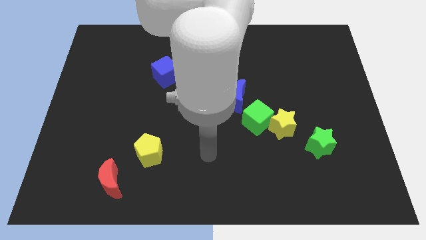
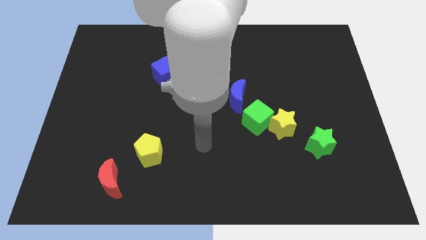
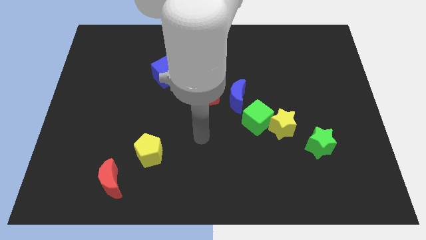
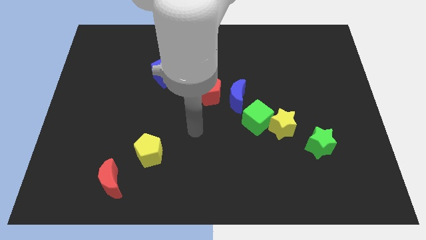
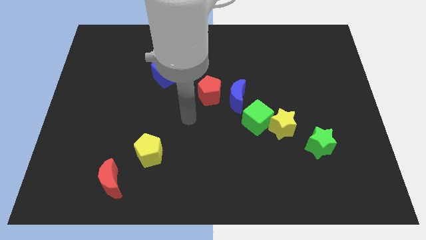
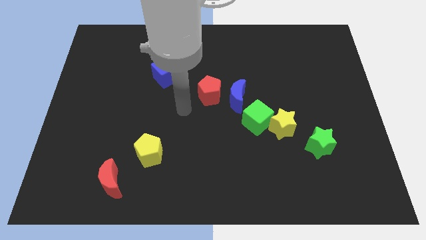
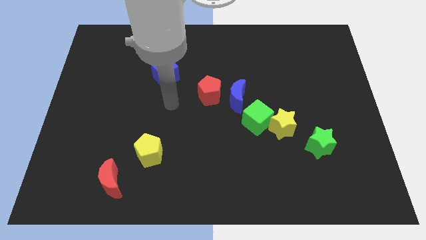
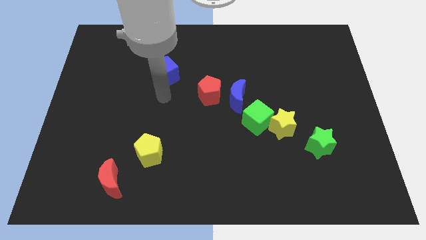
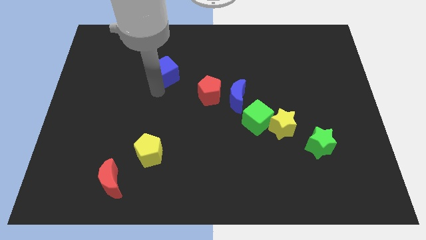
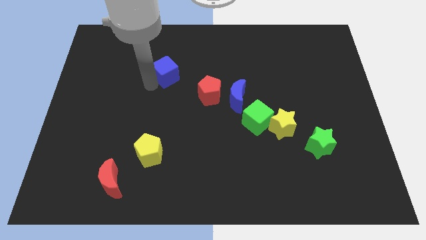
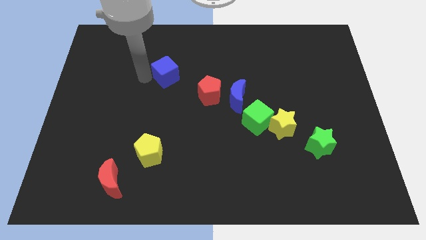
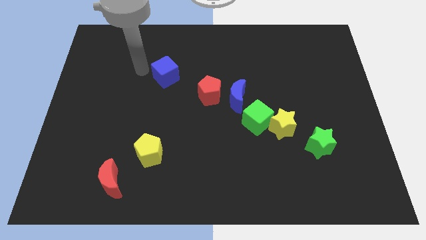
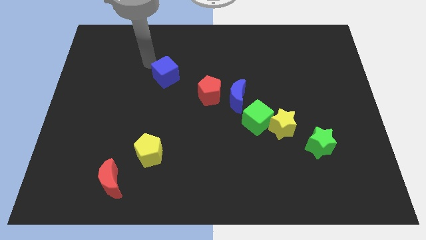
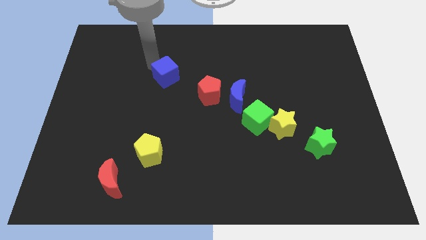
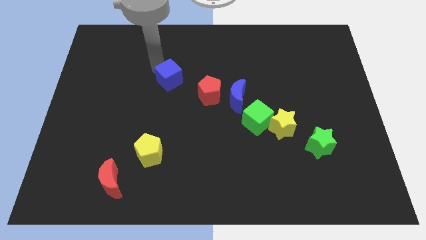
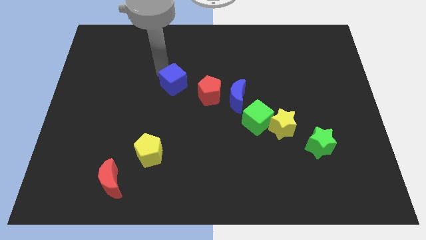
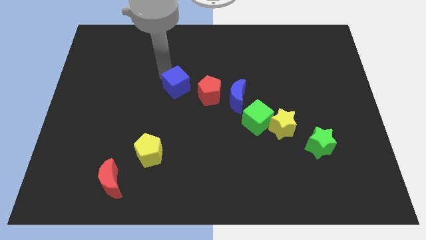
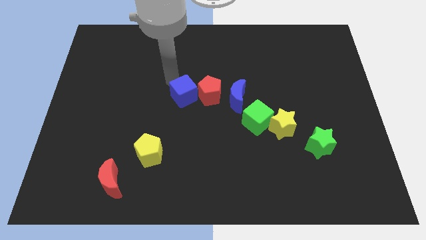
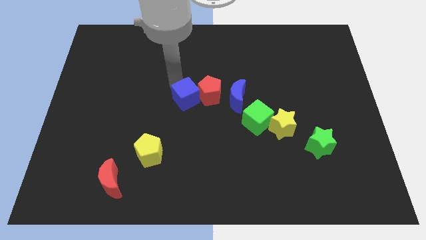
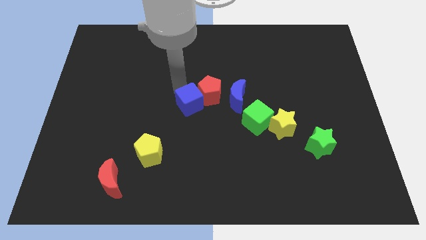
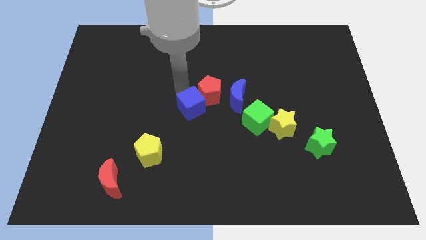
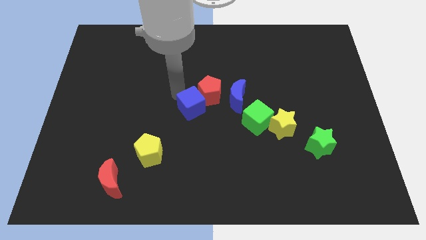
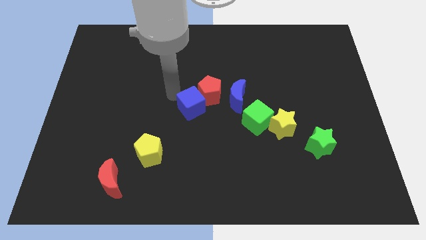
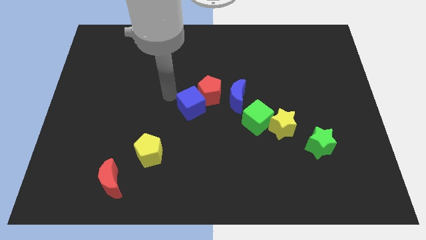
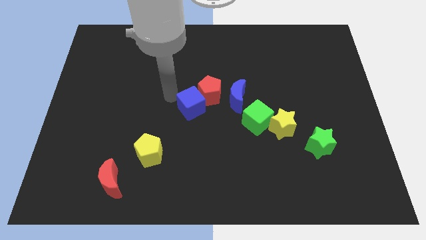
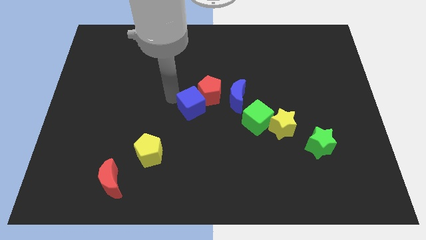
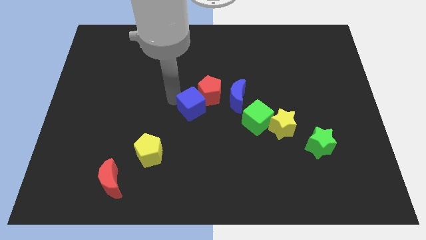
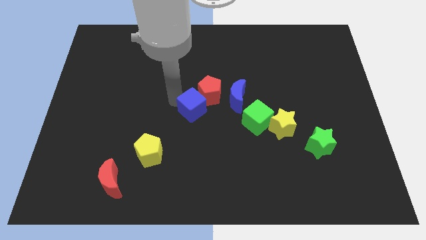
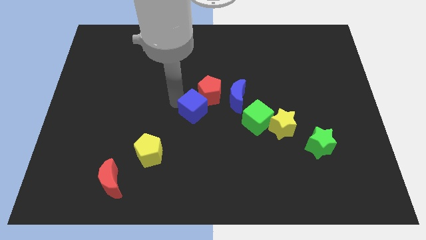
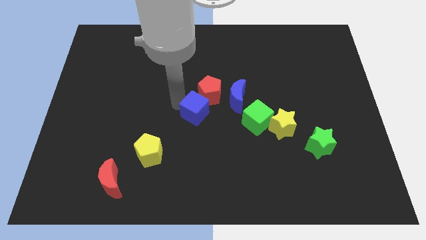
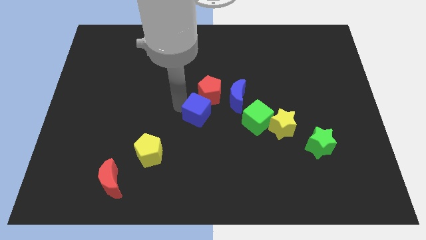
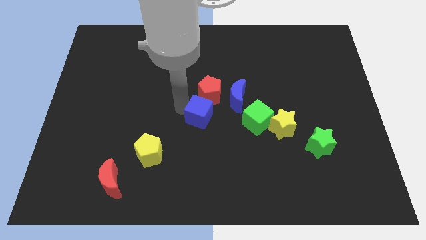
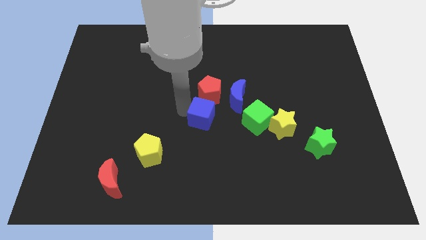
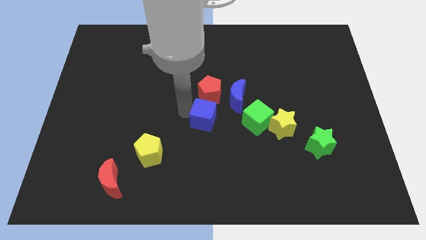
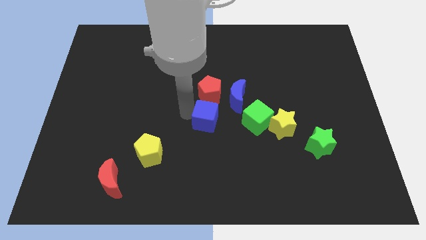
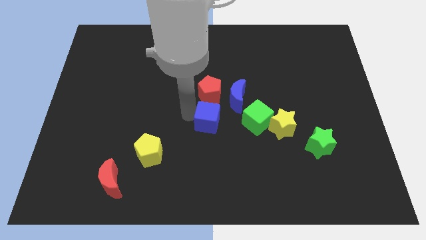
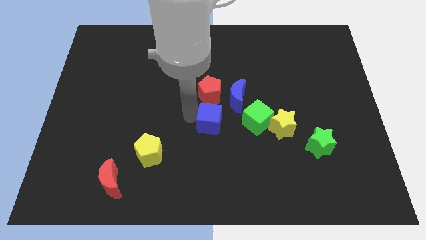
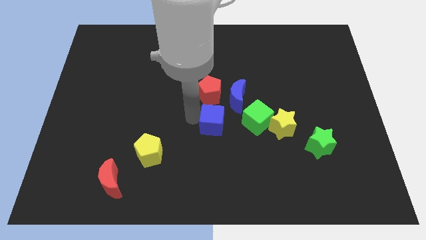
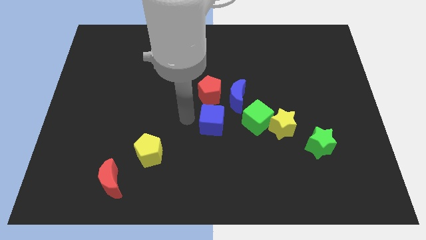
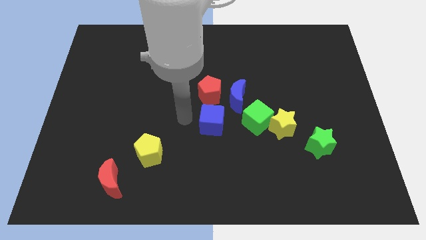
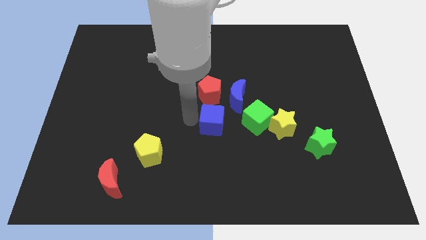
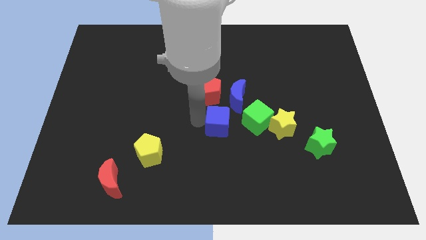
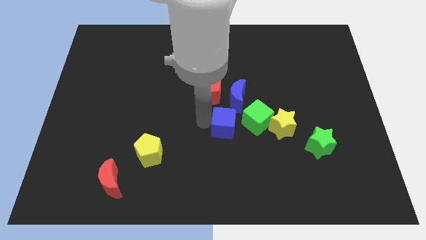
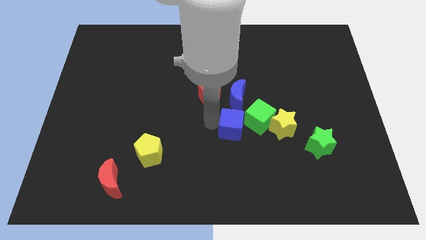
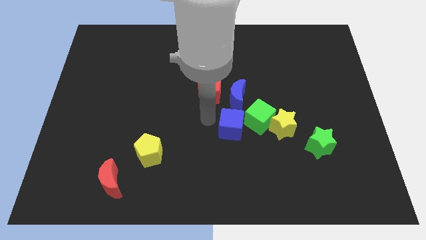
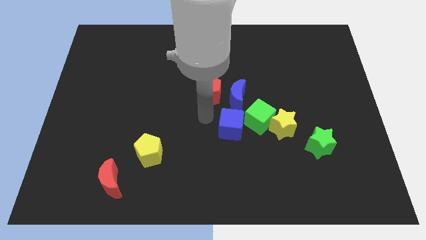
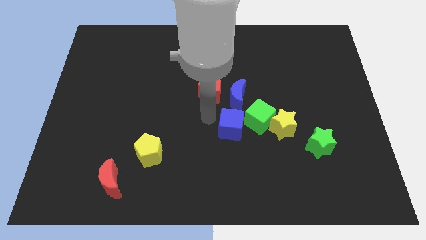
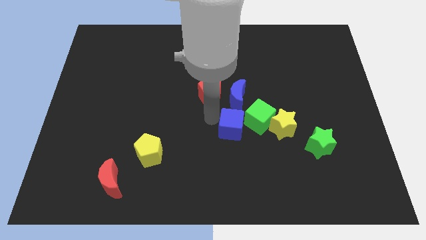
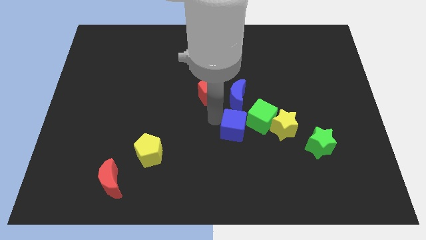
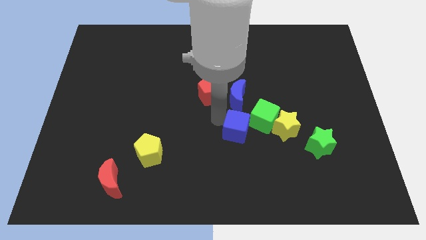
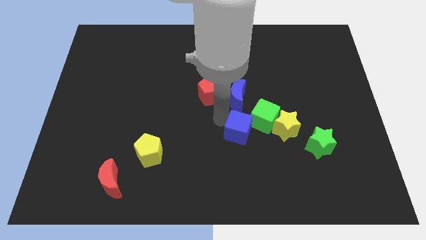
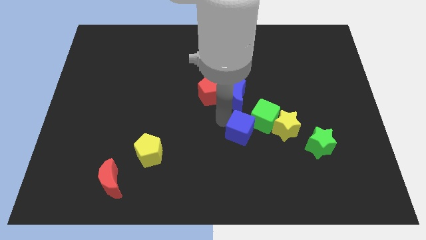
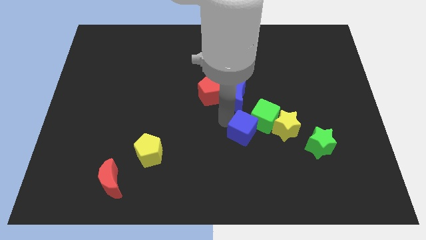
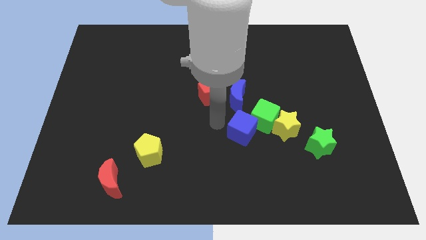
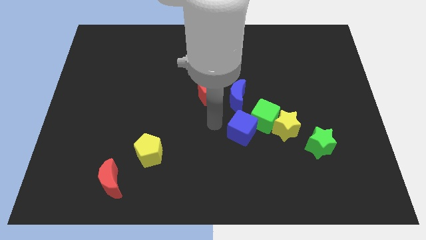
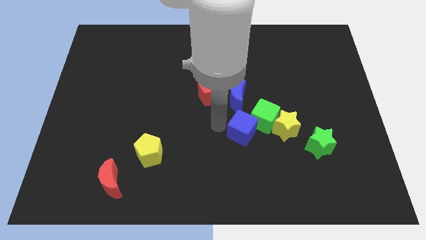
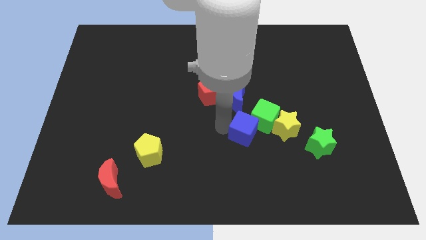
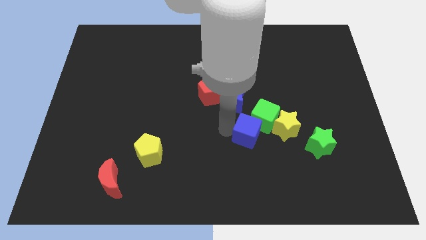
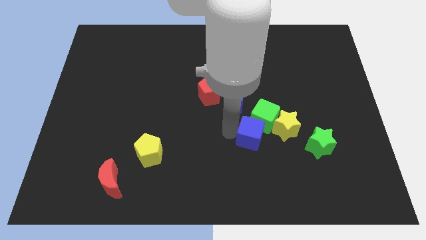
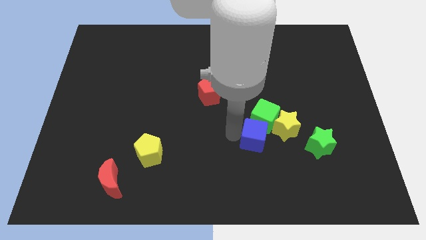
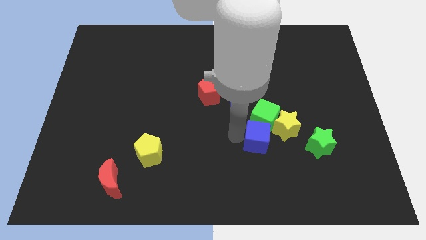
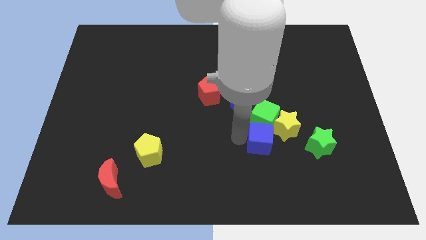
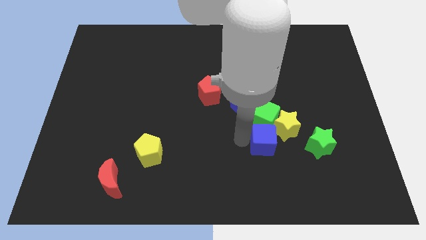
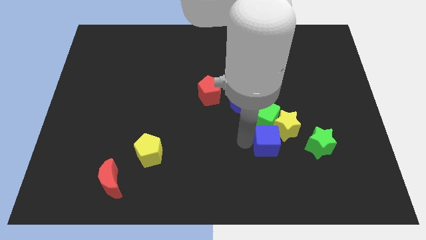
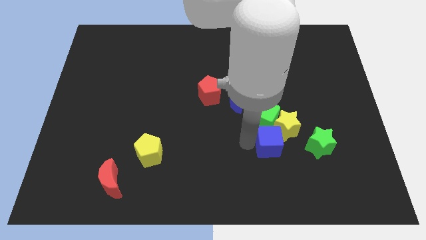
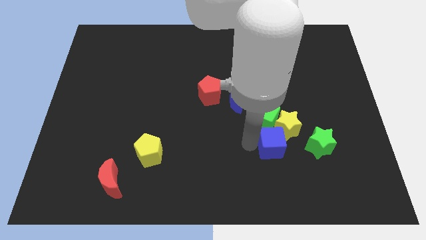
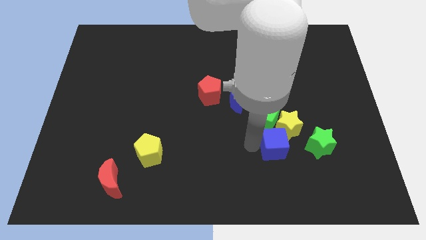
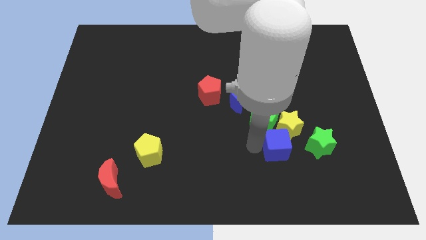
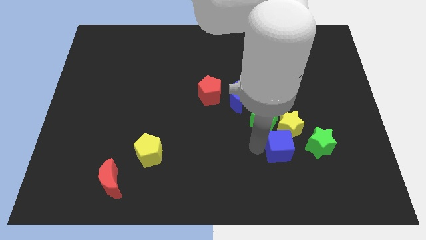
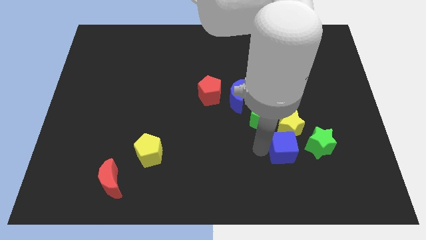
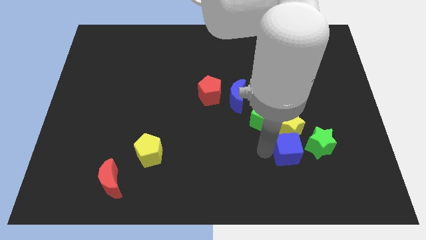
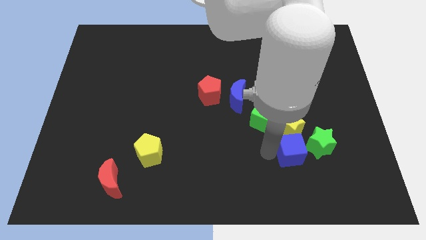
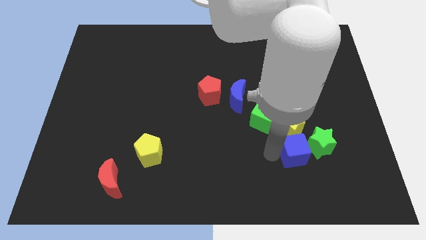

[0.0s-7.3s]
move the blue cube close to the green star
